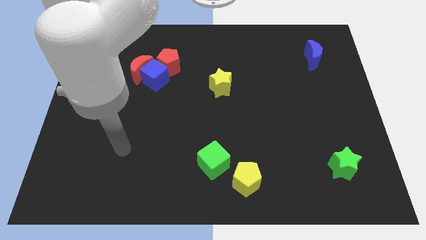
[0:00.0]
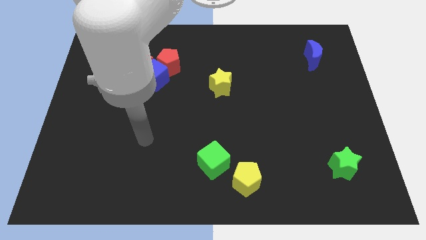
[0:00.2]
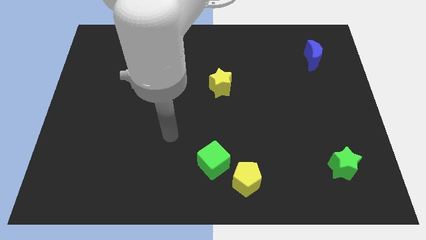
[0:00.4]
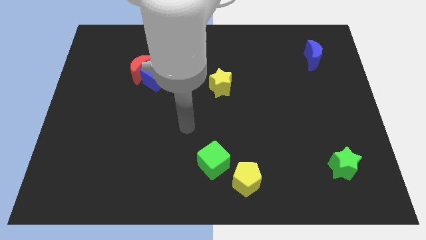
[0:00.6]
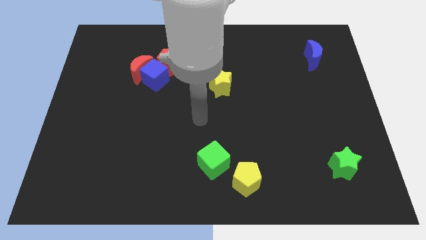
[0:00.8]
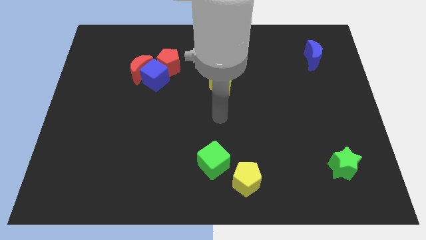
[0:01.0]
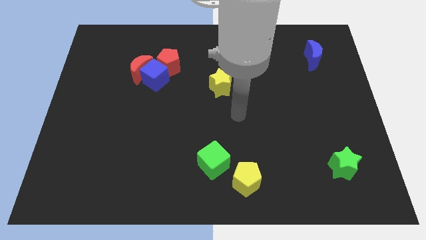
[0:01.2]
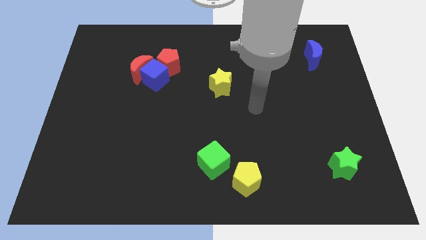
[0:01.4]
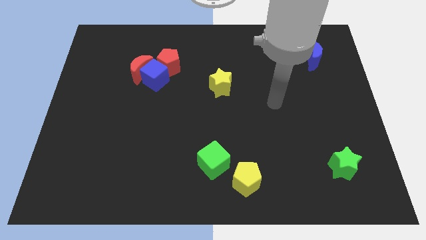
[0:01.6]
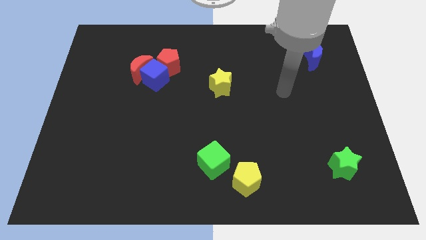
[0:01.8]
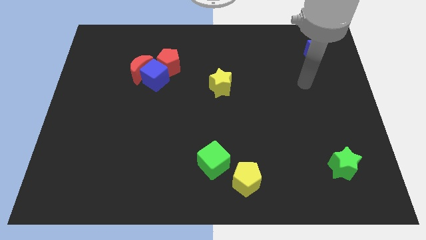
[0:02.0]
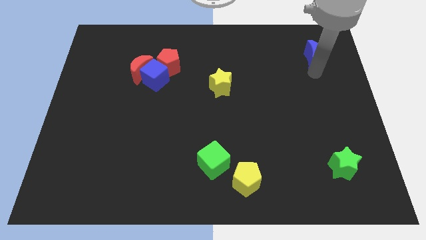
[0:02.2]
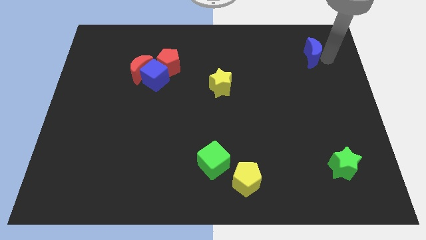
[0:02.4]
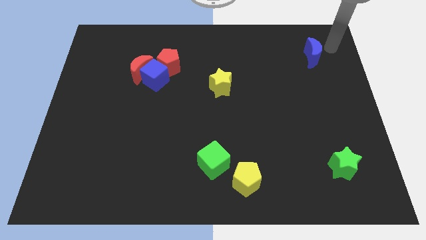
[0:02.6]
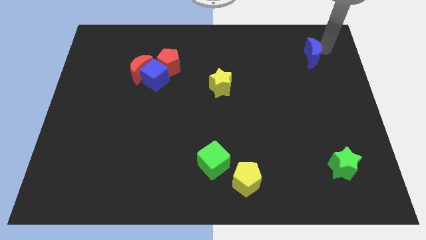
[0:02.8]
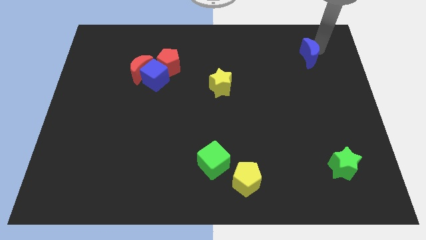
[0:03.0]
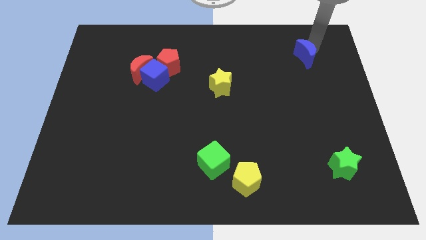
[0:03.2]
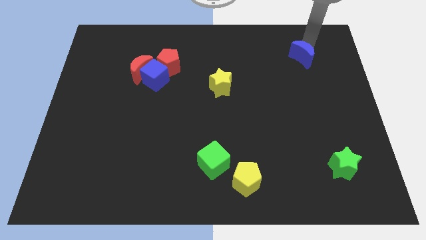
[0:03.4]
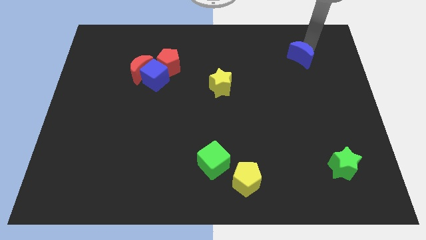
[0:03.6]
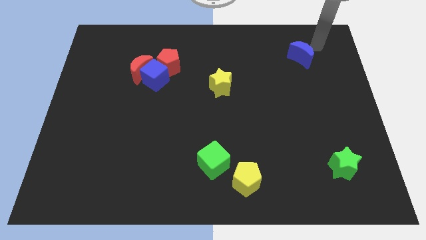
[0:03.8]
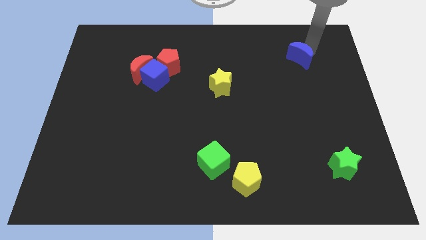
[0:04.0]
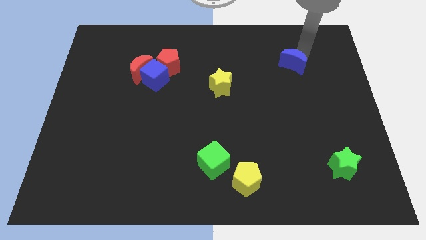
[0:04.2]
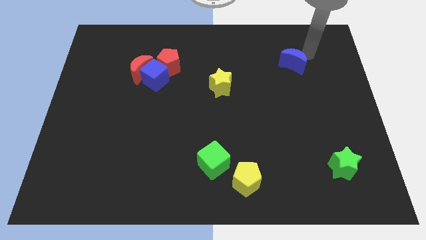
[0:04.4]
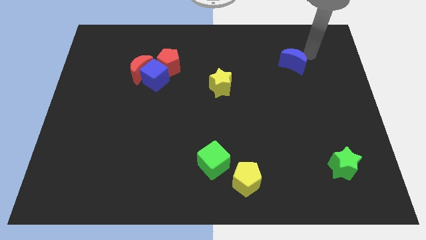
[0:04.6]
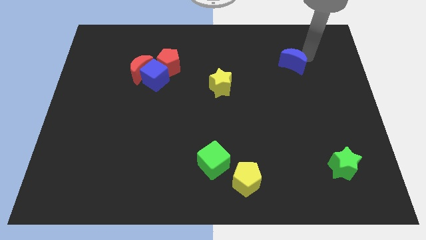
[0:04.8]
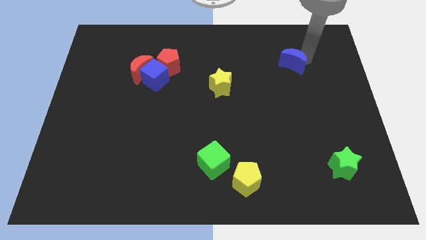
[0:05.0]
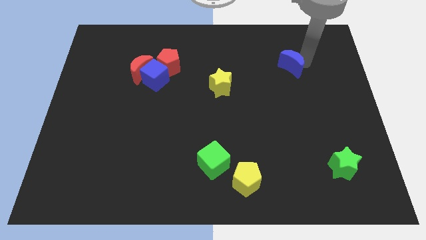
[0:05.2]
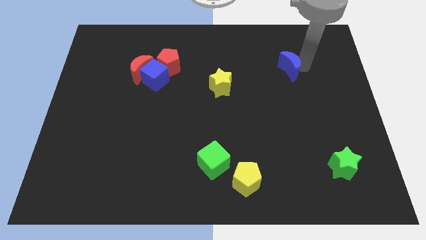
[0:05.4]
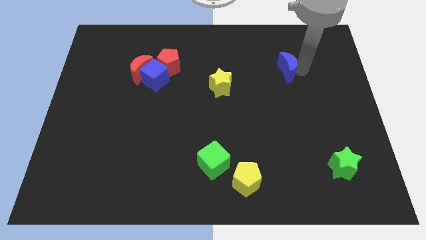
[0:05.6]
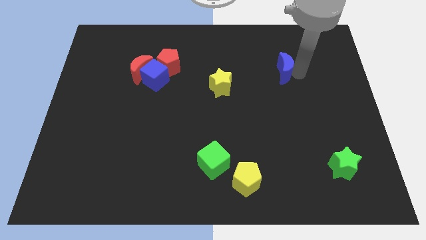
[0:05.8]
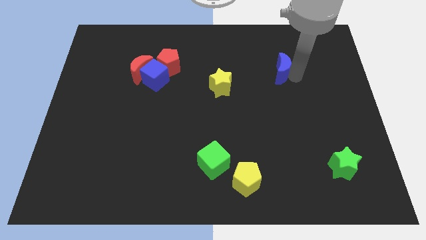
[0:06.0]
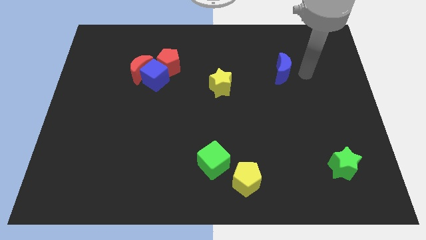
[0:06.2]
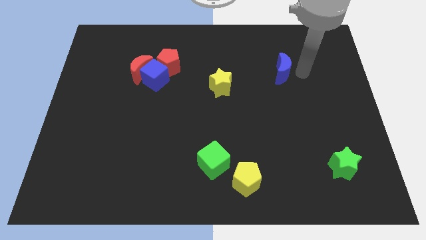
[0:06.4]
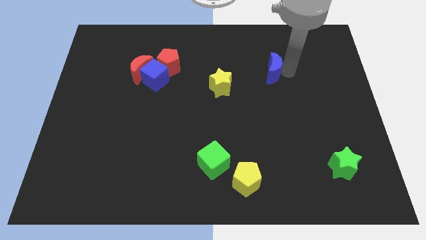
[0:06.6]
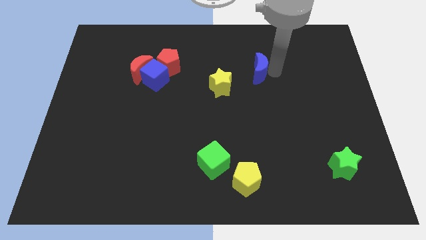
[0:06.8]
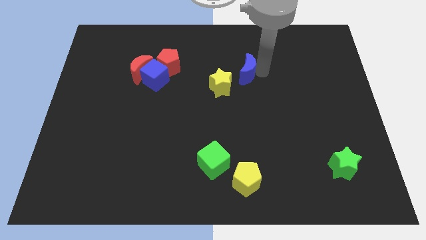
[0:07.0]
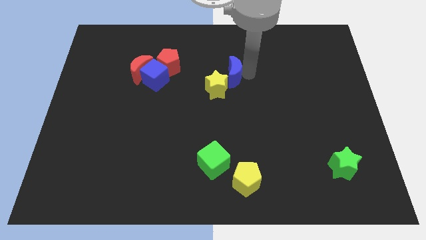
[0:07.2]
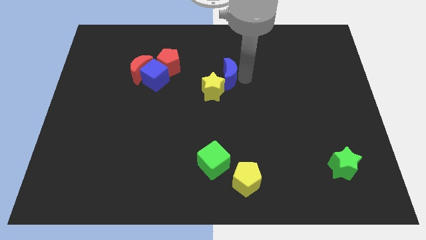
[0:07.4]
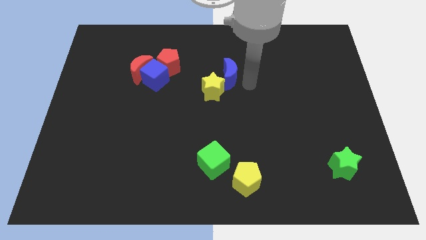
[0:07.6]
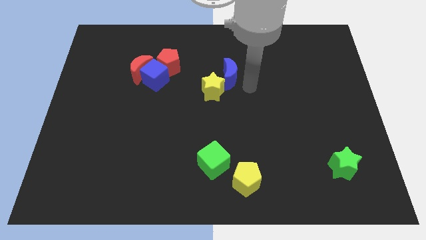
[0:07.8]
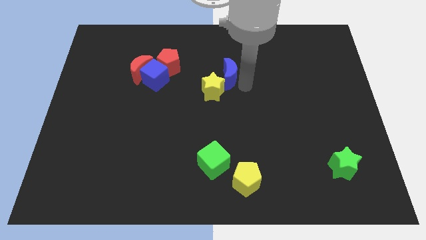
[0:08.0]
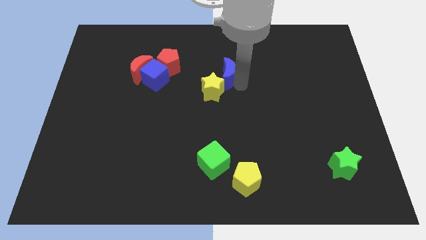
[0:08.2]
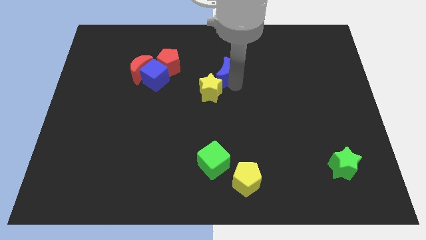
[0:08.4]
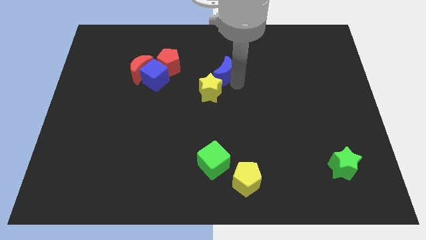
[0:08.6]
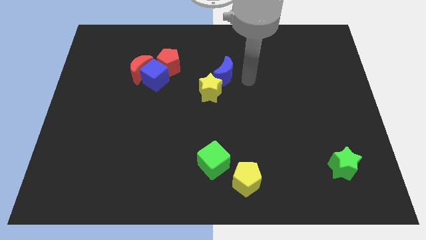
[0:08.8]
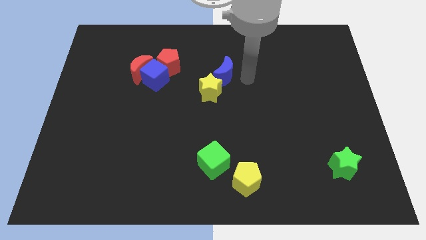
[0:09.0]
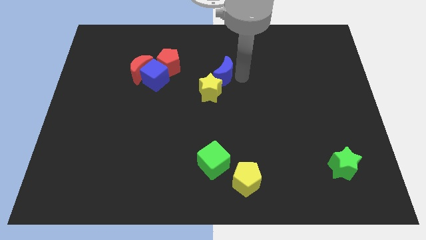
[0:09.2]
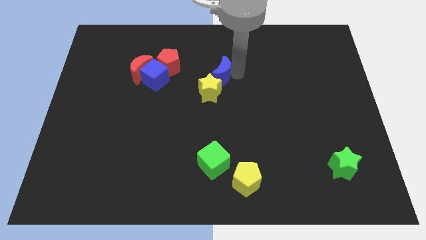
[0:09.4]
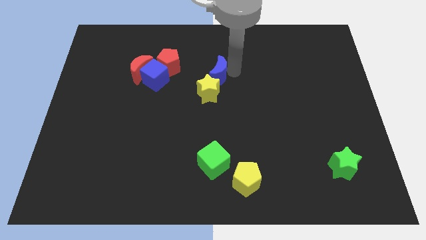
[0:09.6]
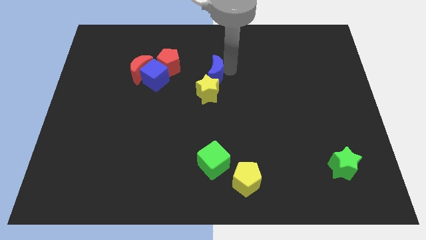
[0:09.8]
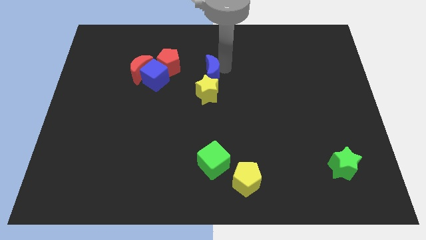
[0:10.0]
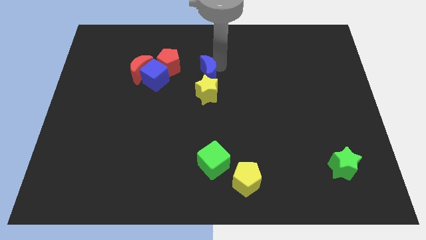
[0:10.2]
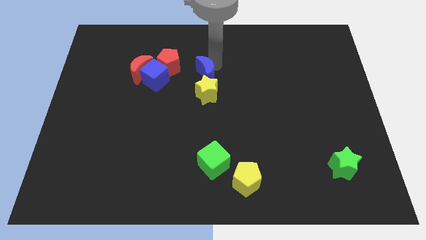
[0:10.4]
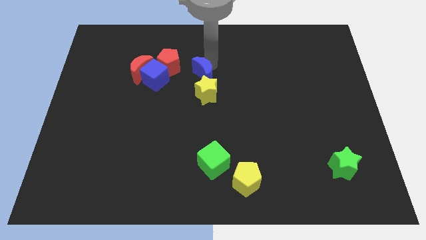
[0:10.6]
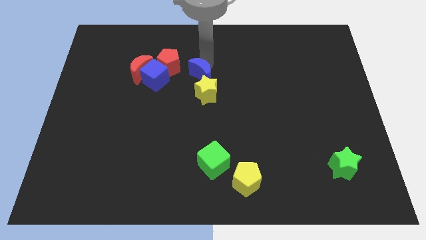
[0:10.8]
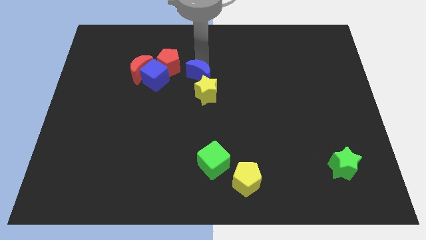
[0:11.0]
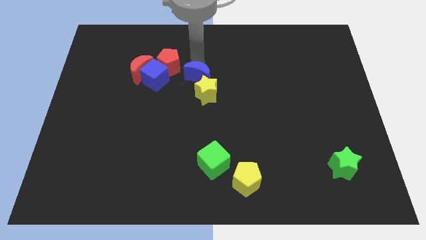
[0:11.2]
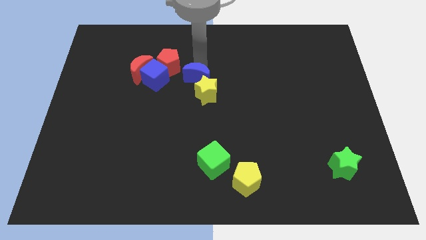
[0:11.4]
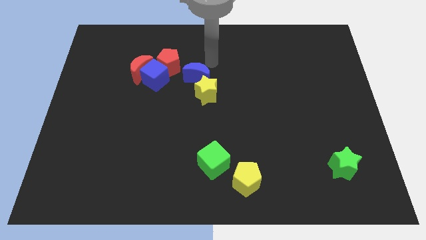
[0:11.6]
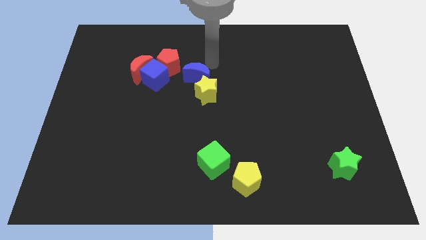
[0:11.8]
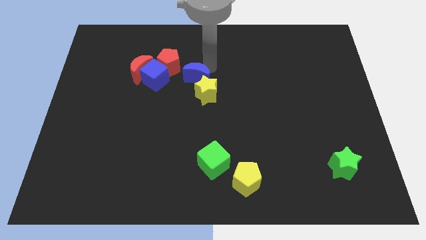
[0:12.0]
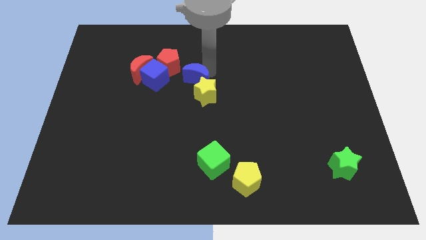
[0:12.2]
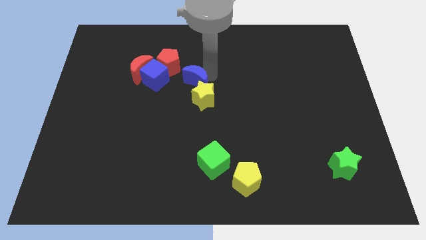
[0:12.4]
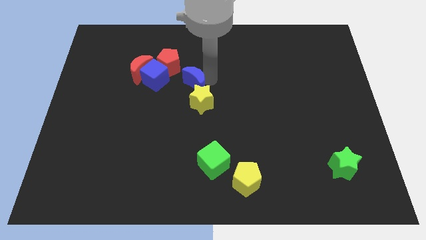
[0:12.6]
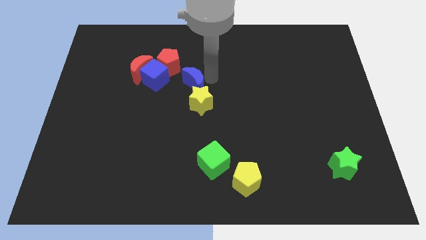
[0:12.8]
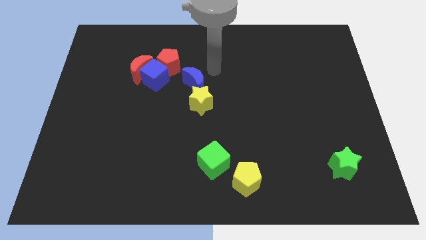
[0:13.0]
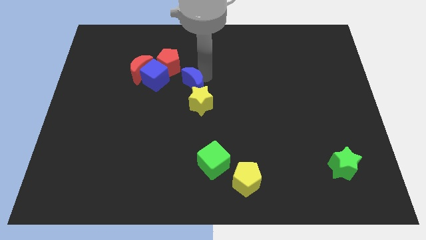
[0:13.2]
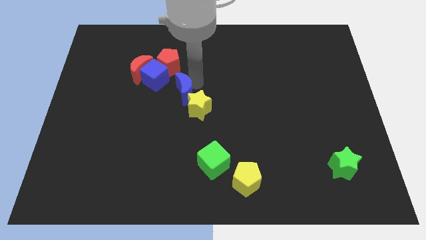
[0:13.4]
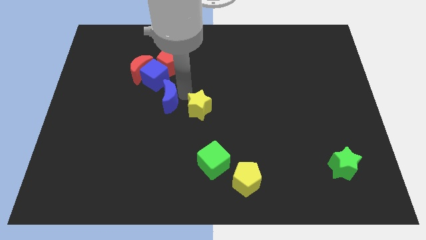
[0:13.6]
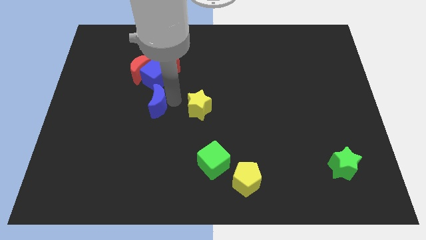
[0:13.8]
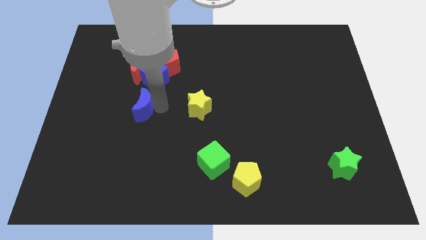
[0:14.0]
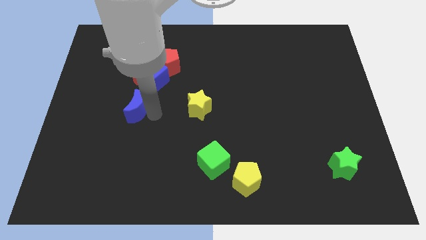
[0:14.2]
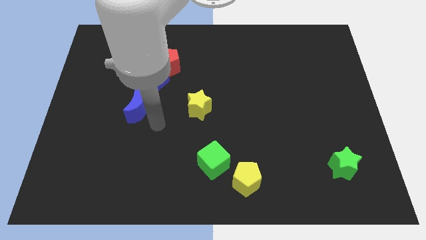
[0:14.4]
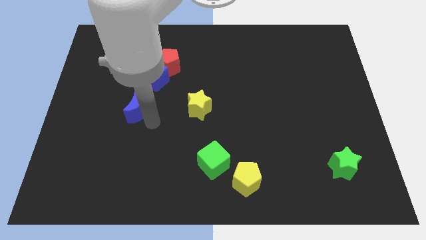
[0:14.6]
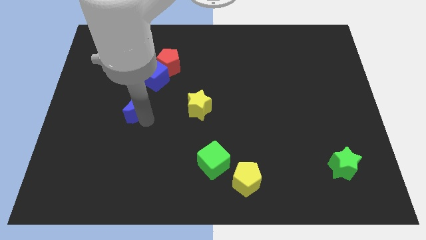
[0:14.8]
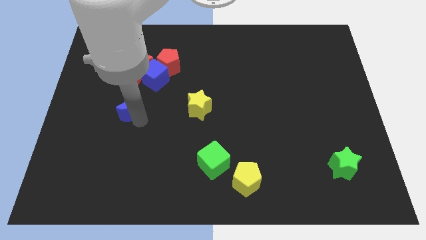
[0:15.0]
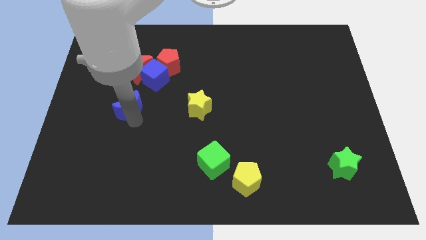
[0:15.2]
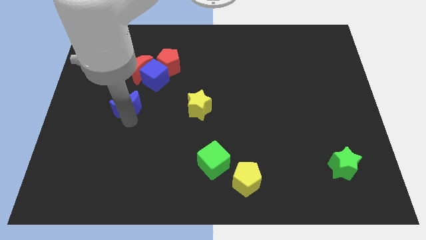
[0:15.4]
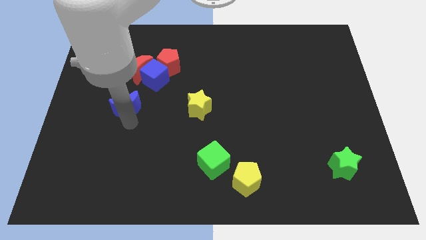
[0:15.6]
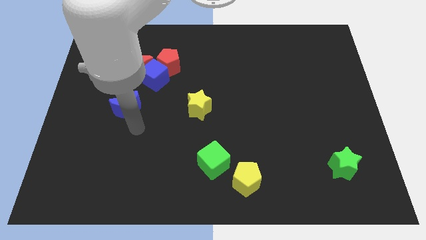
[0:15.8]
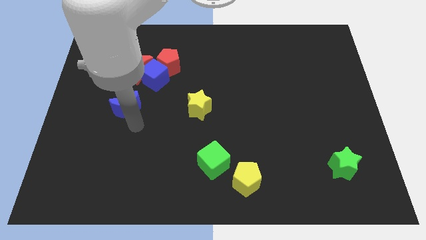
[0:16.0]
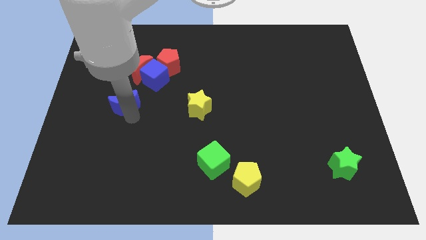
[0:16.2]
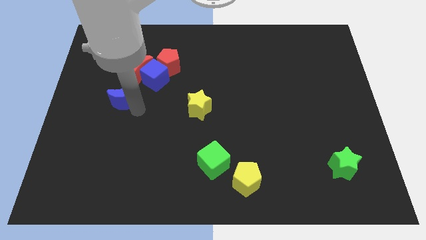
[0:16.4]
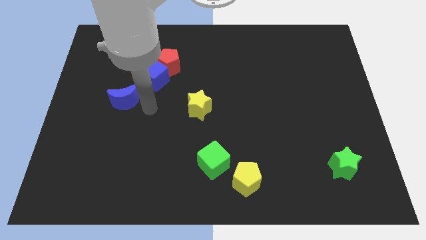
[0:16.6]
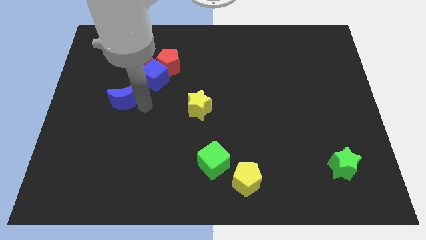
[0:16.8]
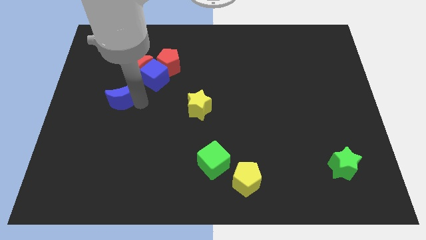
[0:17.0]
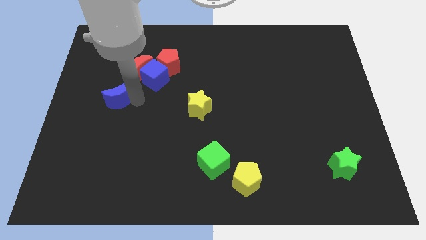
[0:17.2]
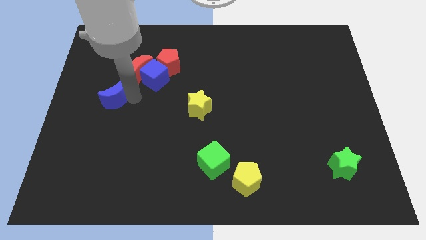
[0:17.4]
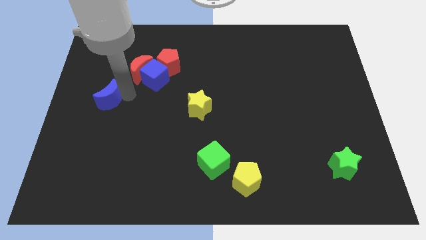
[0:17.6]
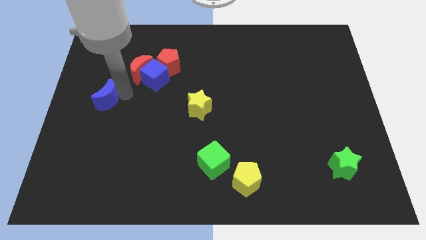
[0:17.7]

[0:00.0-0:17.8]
move the blue moon to the left side of the board
